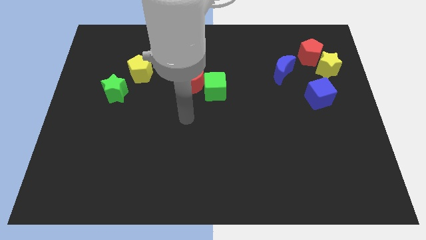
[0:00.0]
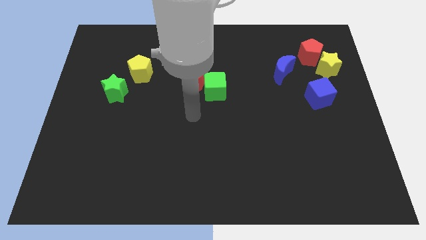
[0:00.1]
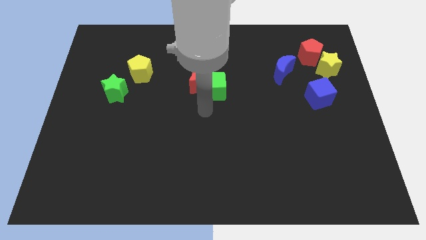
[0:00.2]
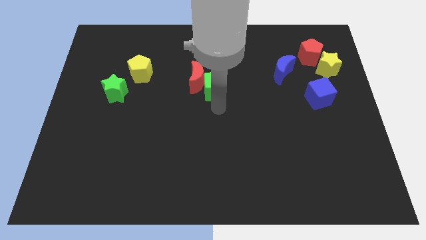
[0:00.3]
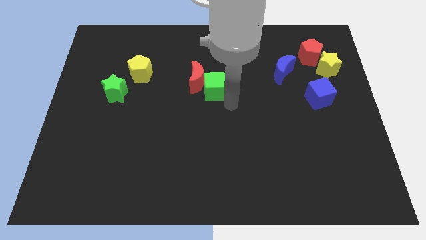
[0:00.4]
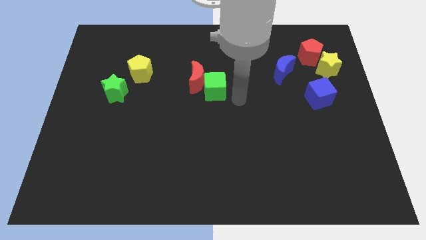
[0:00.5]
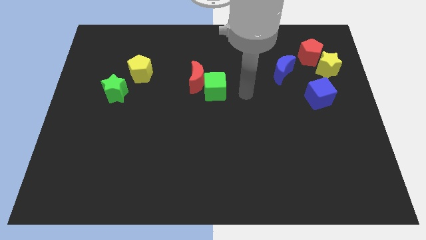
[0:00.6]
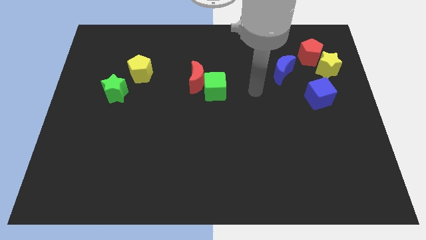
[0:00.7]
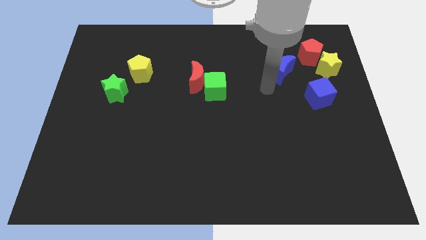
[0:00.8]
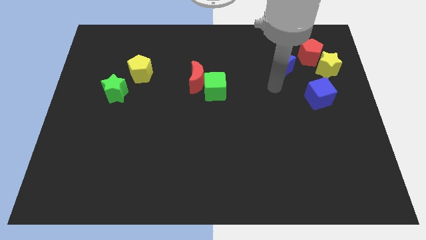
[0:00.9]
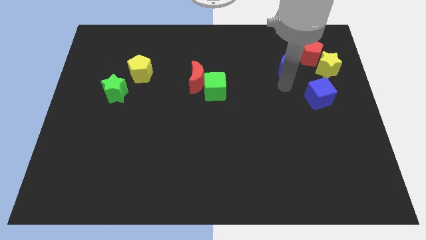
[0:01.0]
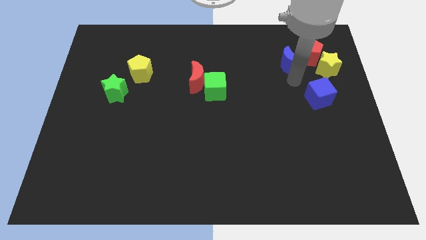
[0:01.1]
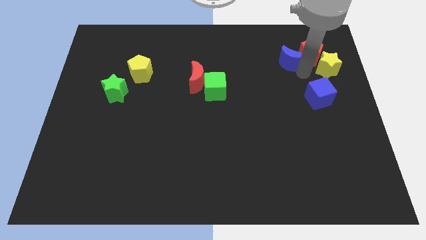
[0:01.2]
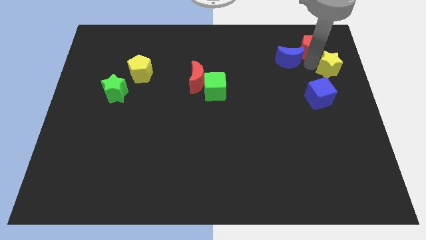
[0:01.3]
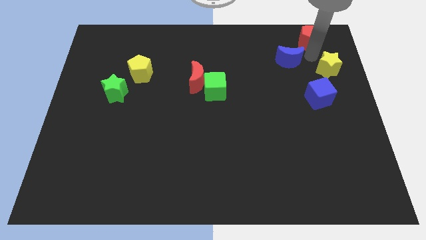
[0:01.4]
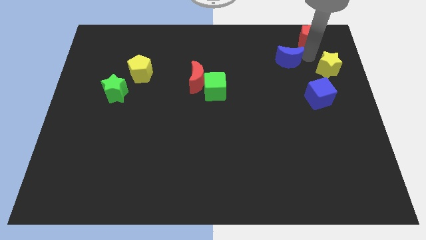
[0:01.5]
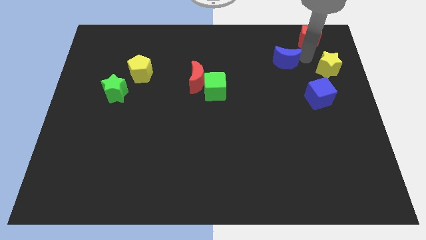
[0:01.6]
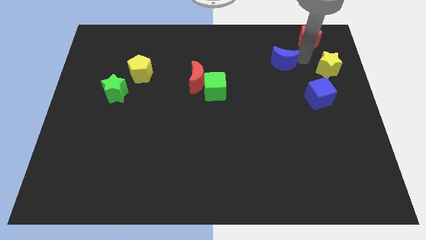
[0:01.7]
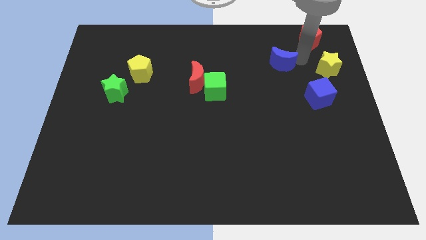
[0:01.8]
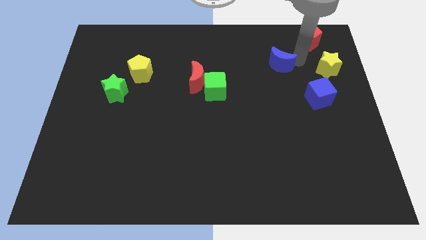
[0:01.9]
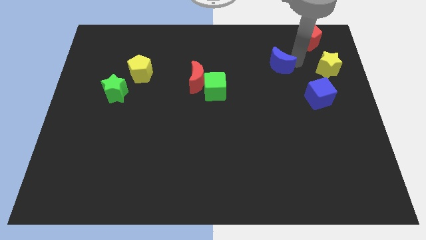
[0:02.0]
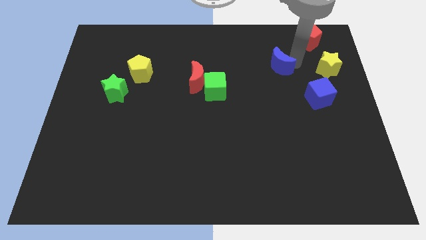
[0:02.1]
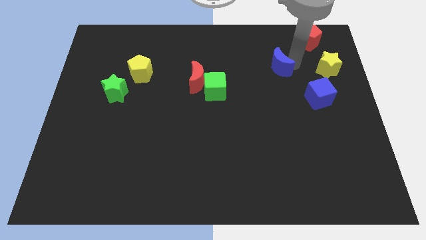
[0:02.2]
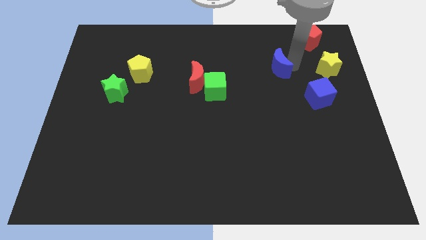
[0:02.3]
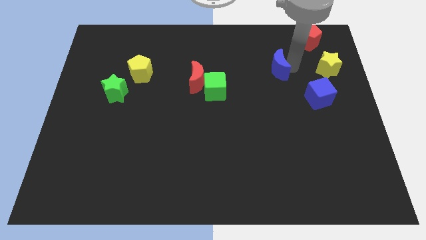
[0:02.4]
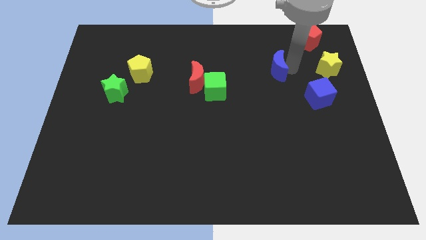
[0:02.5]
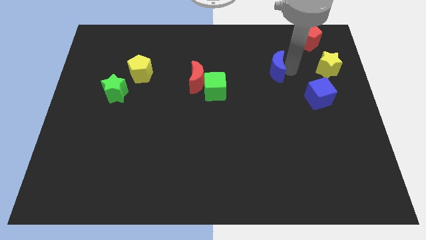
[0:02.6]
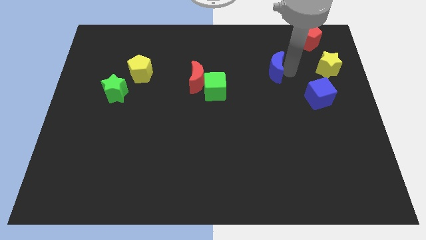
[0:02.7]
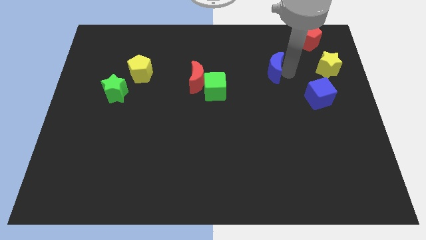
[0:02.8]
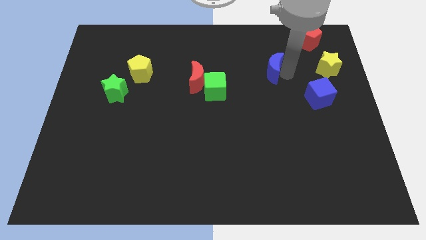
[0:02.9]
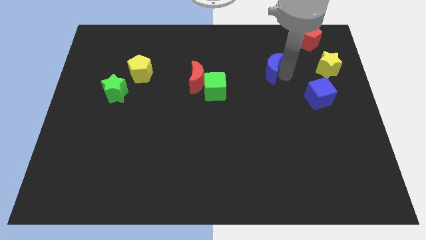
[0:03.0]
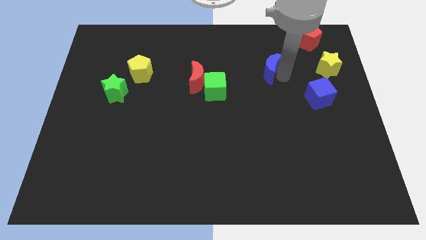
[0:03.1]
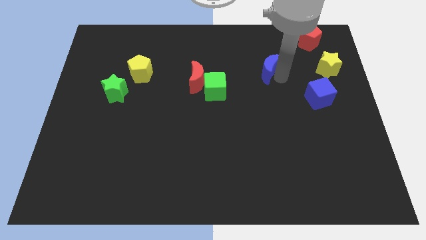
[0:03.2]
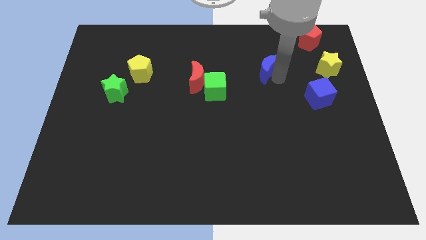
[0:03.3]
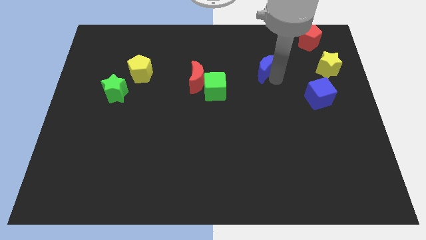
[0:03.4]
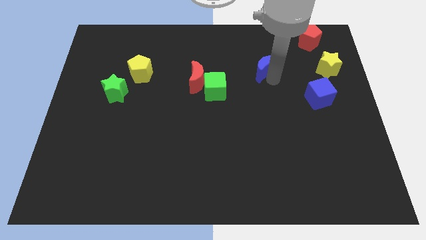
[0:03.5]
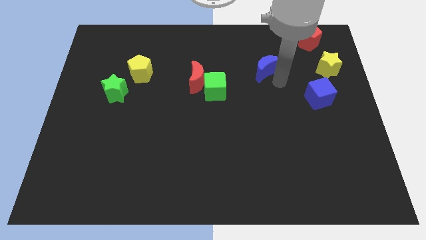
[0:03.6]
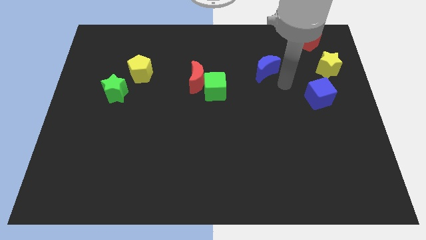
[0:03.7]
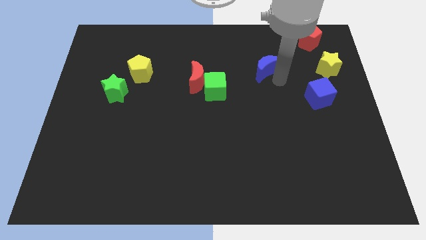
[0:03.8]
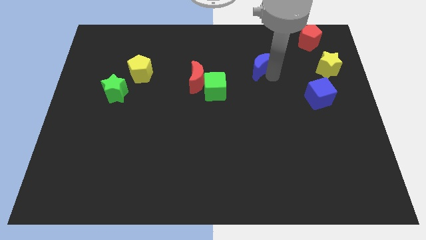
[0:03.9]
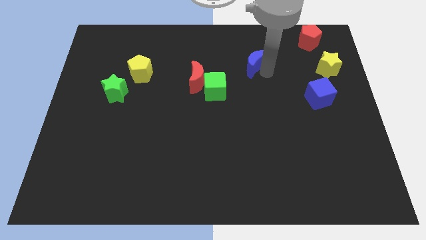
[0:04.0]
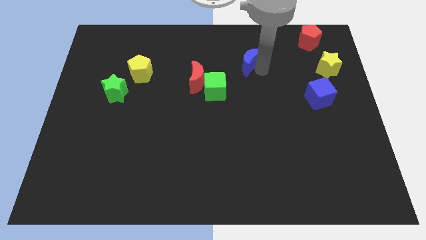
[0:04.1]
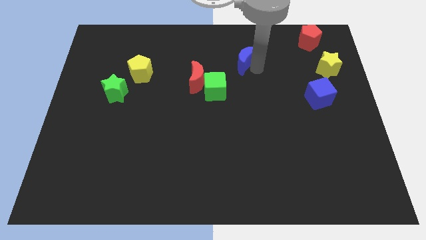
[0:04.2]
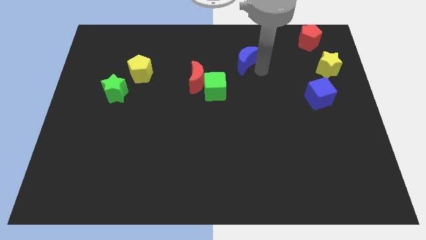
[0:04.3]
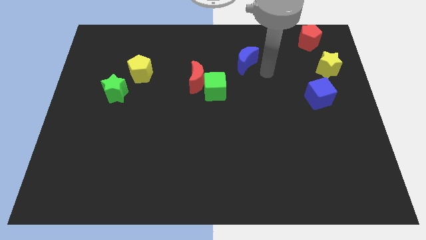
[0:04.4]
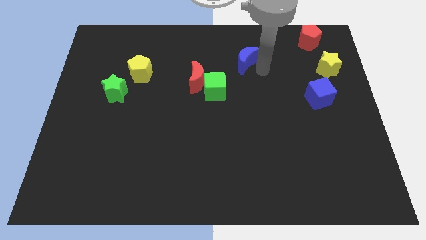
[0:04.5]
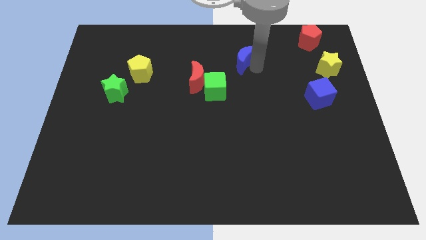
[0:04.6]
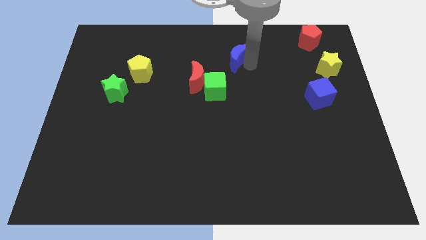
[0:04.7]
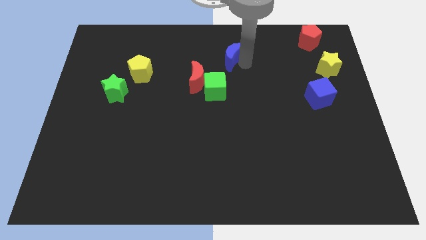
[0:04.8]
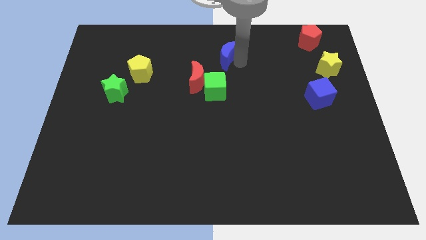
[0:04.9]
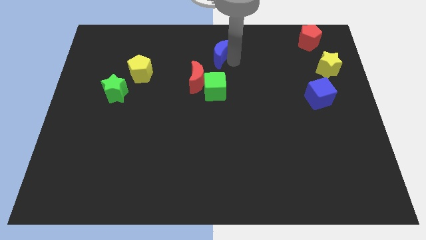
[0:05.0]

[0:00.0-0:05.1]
move the blue moon to the towards your base

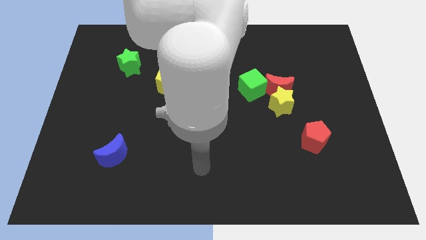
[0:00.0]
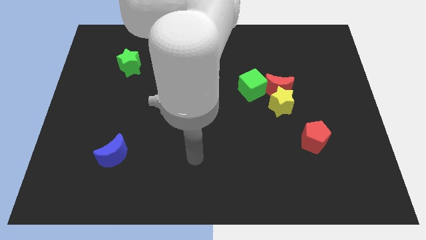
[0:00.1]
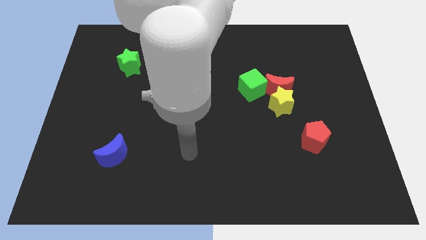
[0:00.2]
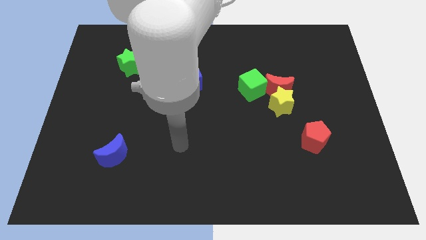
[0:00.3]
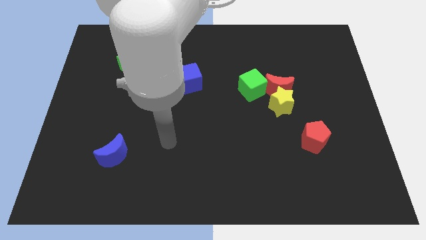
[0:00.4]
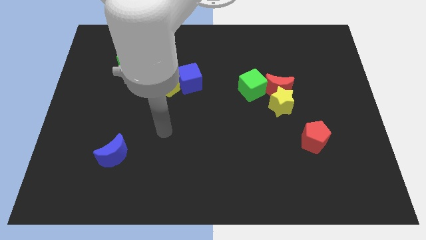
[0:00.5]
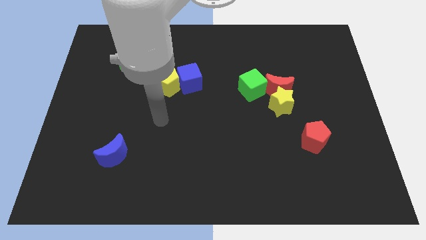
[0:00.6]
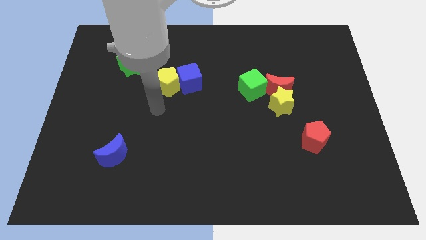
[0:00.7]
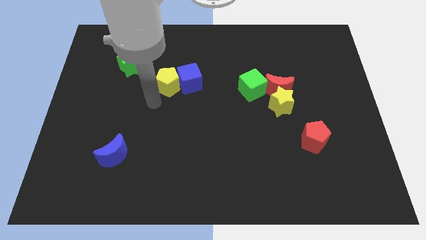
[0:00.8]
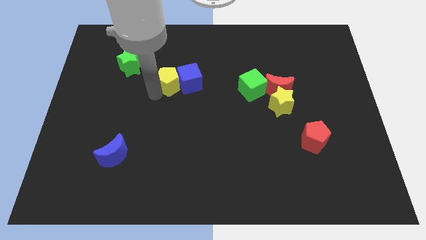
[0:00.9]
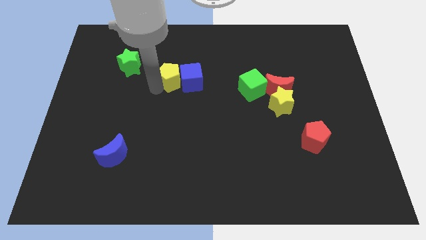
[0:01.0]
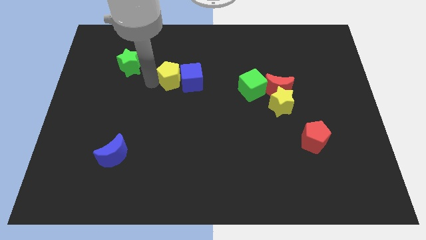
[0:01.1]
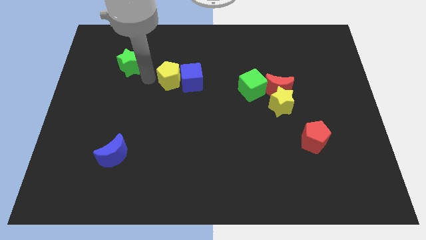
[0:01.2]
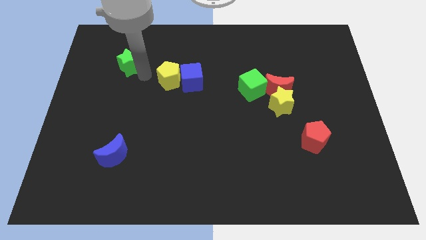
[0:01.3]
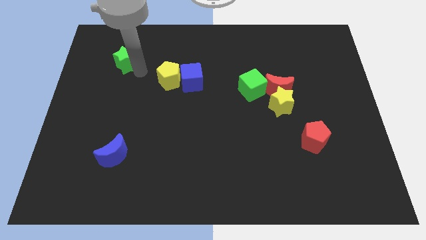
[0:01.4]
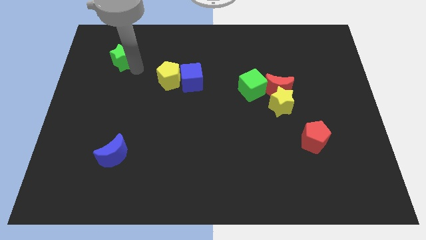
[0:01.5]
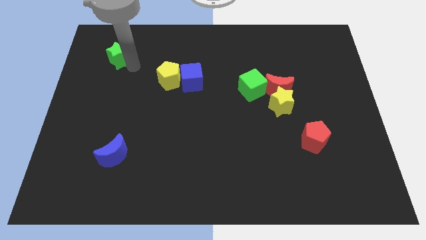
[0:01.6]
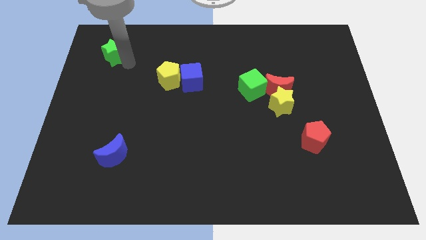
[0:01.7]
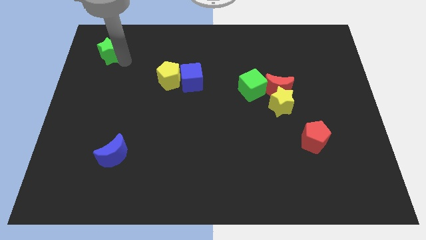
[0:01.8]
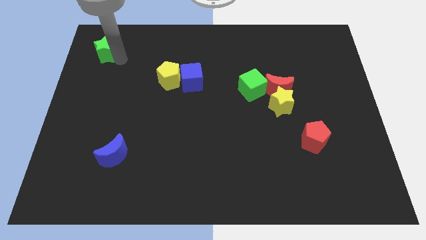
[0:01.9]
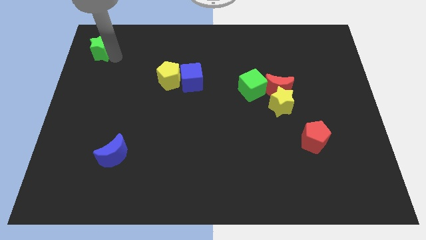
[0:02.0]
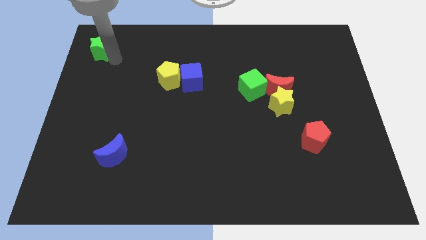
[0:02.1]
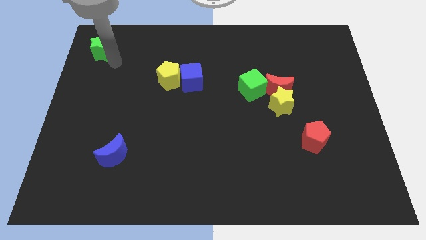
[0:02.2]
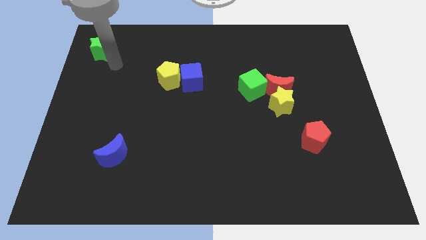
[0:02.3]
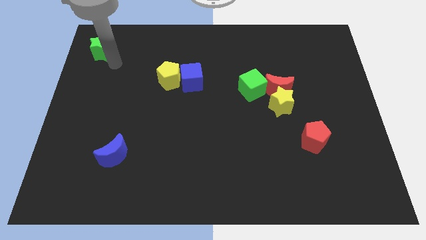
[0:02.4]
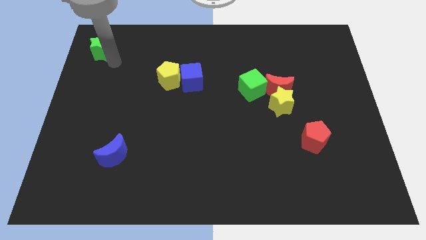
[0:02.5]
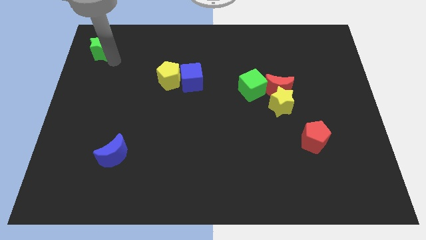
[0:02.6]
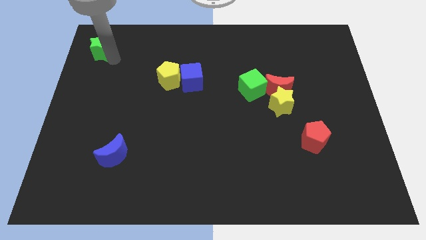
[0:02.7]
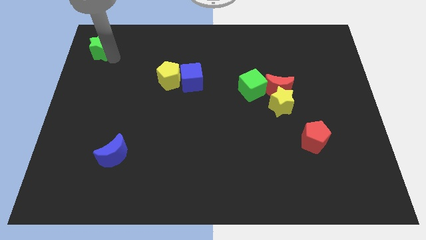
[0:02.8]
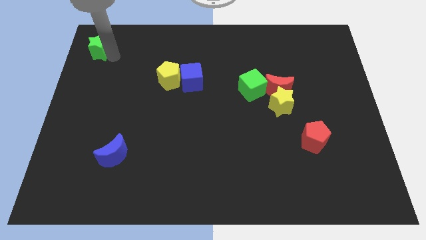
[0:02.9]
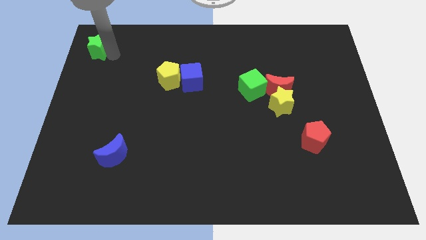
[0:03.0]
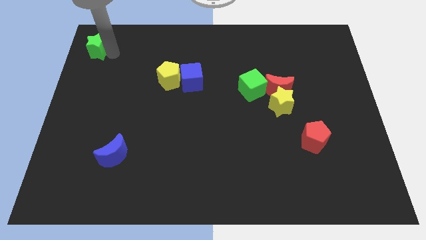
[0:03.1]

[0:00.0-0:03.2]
move the green star to the top left corner
